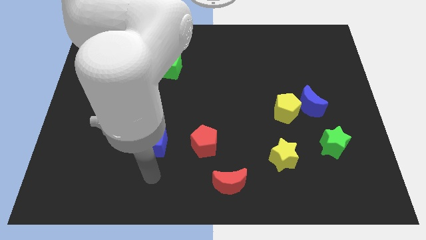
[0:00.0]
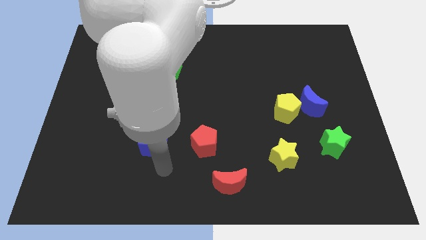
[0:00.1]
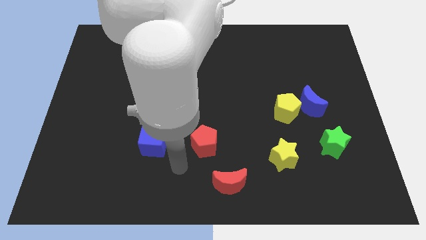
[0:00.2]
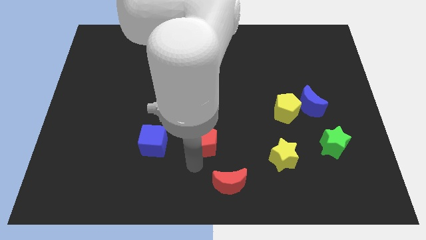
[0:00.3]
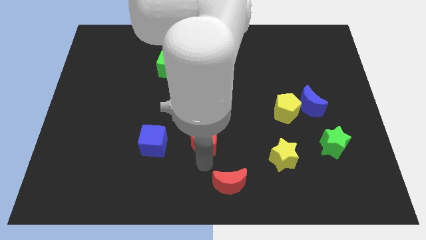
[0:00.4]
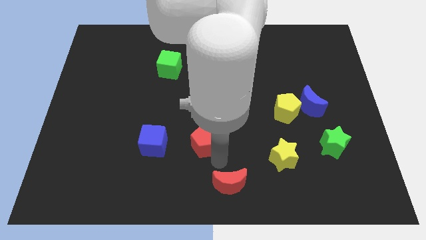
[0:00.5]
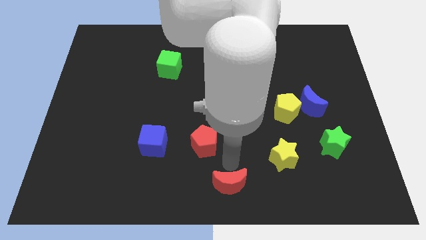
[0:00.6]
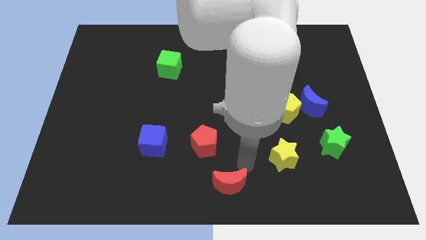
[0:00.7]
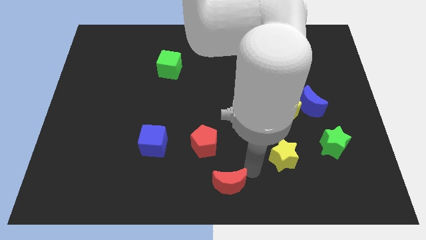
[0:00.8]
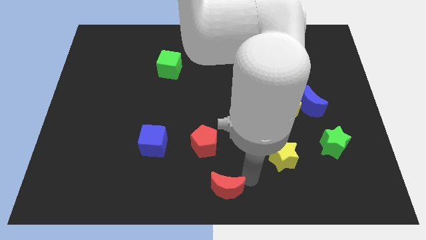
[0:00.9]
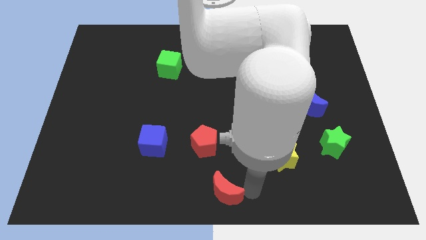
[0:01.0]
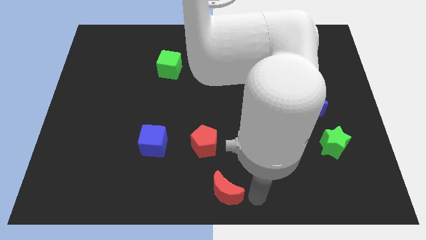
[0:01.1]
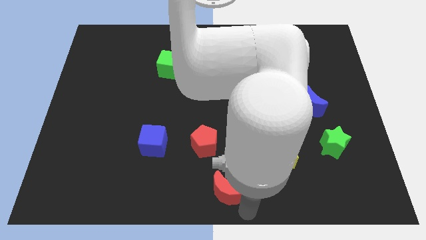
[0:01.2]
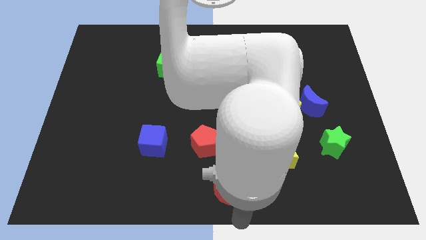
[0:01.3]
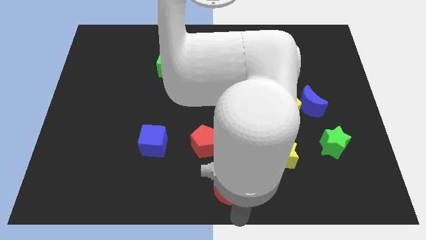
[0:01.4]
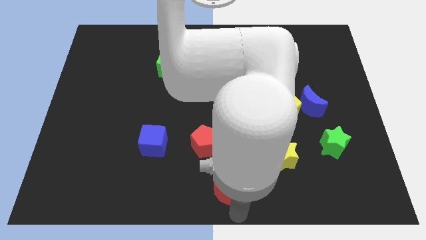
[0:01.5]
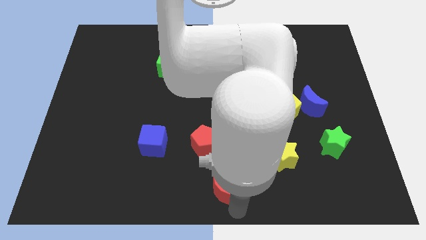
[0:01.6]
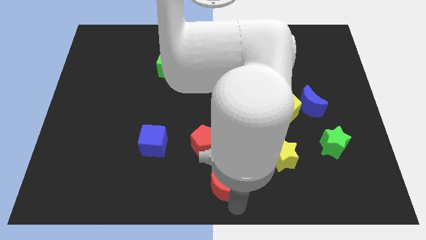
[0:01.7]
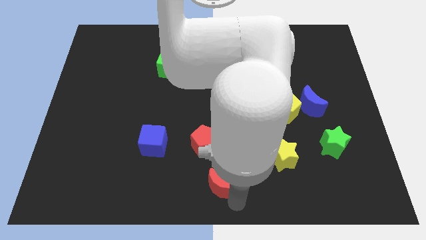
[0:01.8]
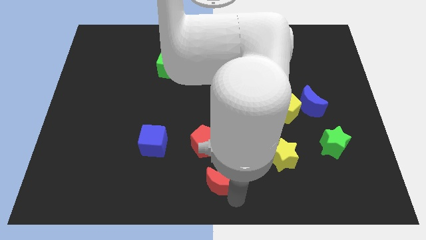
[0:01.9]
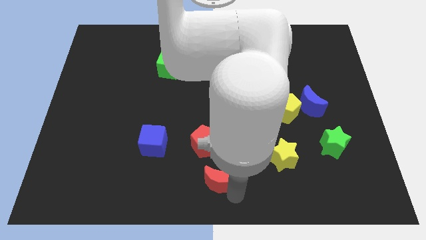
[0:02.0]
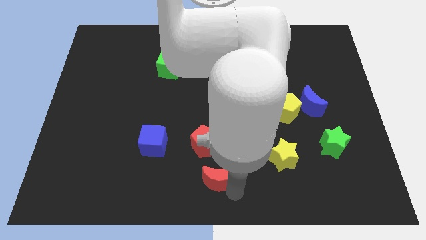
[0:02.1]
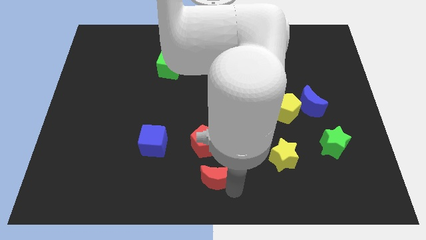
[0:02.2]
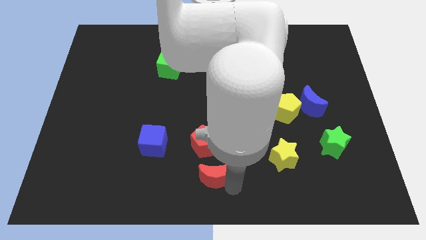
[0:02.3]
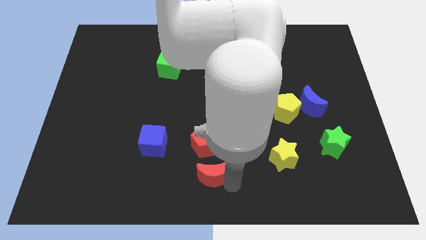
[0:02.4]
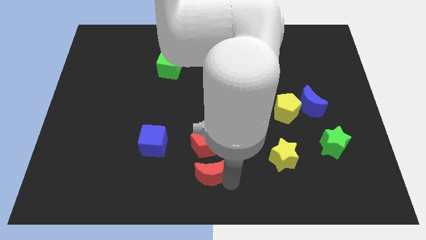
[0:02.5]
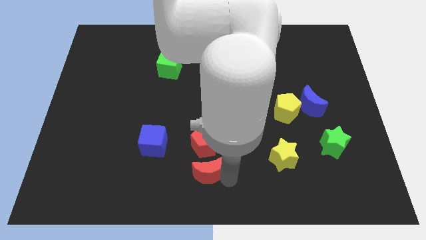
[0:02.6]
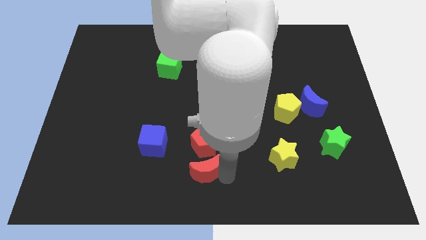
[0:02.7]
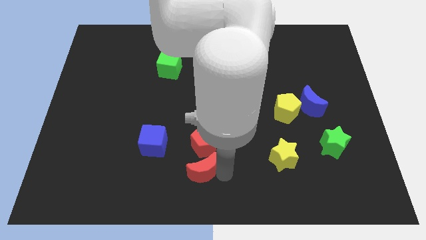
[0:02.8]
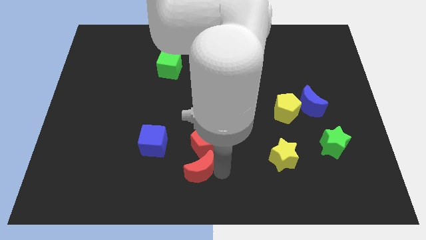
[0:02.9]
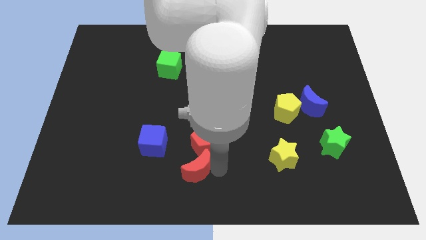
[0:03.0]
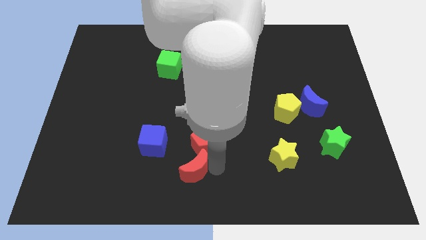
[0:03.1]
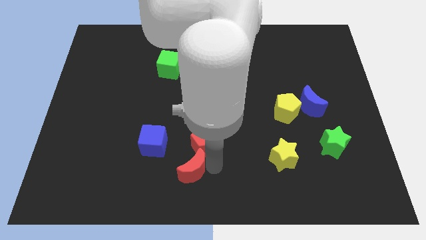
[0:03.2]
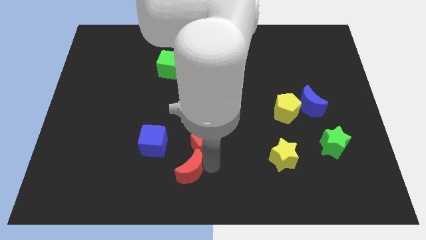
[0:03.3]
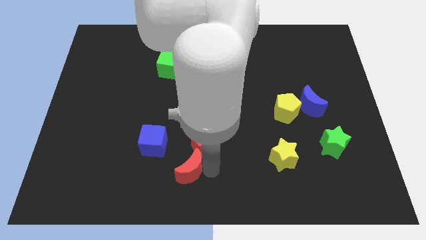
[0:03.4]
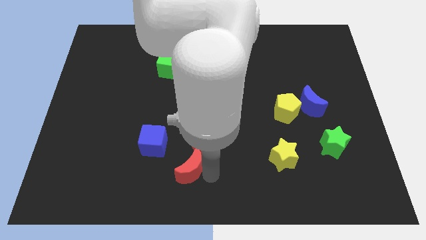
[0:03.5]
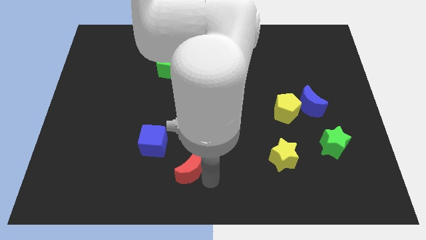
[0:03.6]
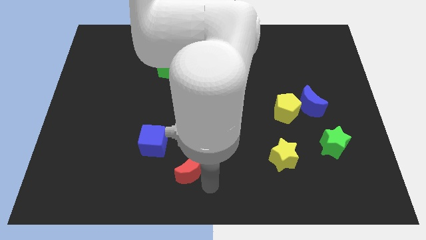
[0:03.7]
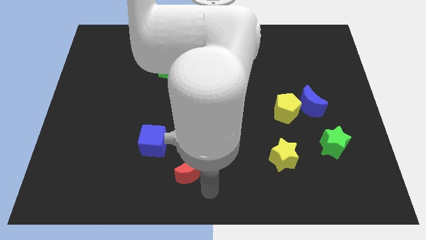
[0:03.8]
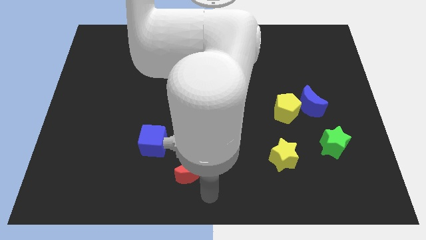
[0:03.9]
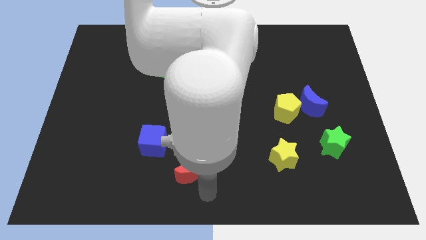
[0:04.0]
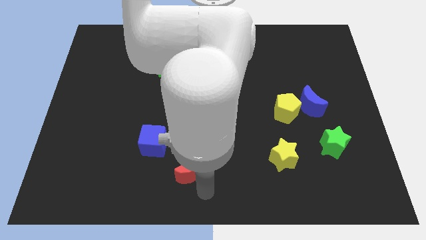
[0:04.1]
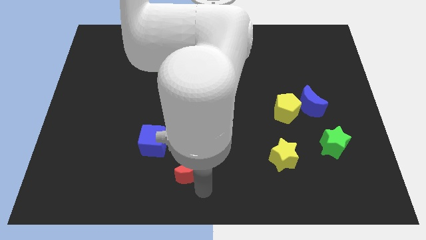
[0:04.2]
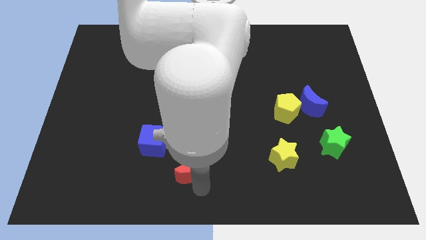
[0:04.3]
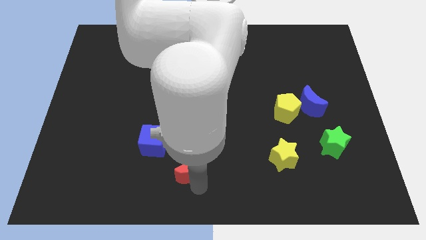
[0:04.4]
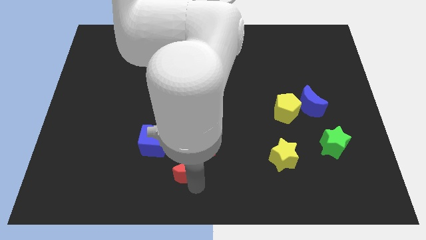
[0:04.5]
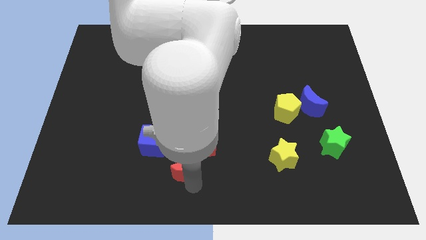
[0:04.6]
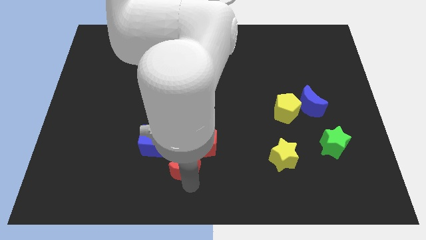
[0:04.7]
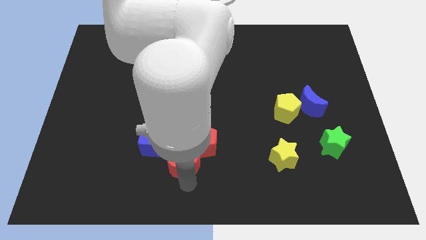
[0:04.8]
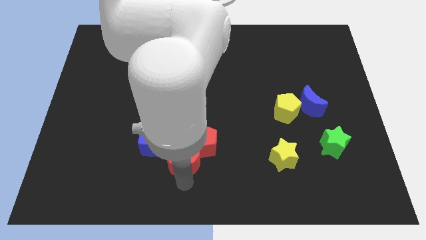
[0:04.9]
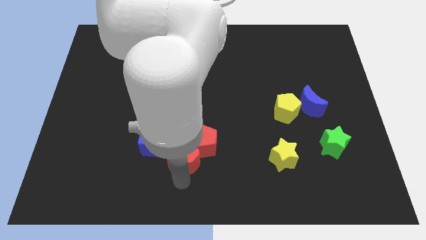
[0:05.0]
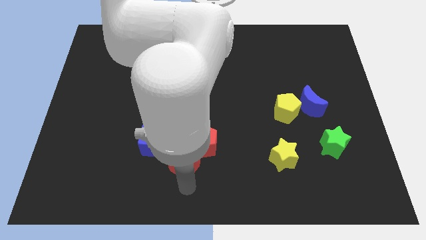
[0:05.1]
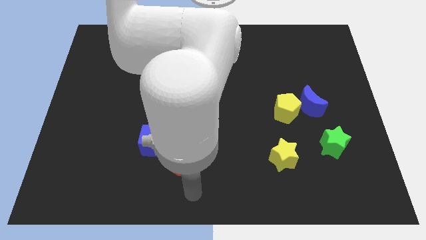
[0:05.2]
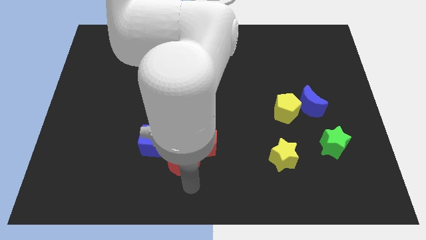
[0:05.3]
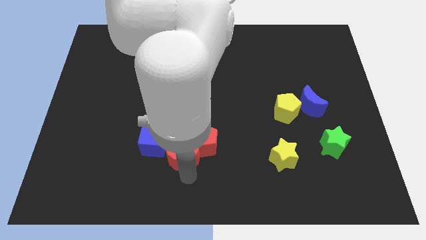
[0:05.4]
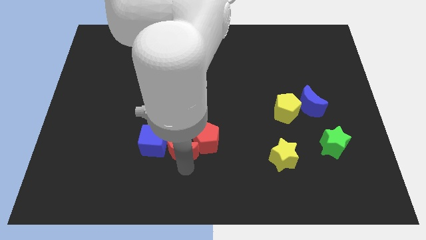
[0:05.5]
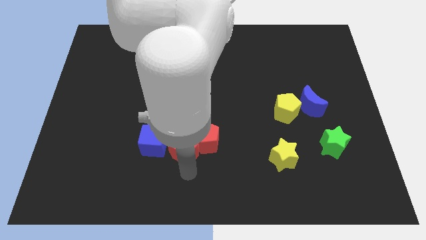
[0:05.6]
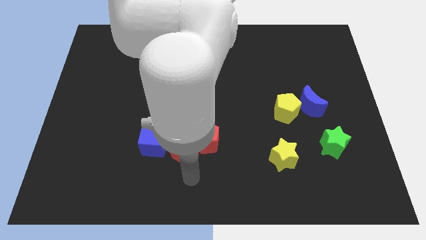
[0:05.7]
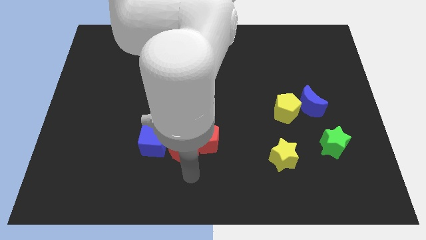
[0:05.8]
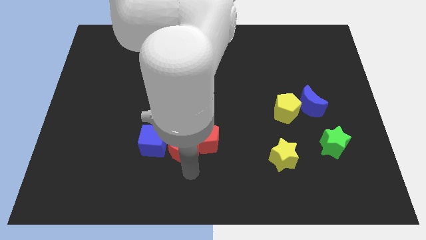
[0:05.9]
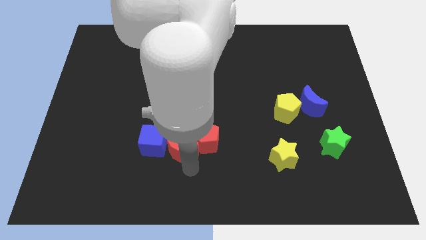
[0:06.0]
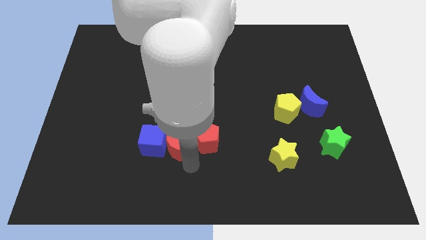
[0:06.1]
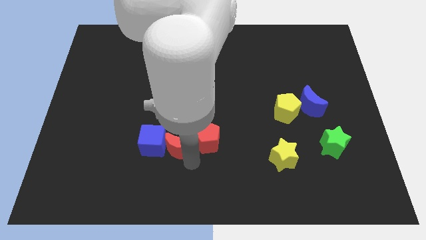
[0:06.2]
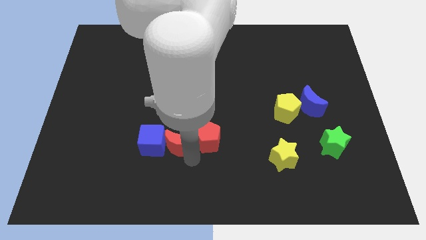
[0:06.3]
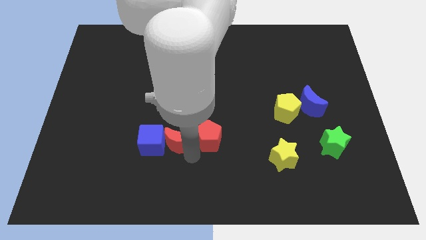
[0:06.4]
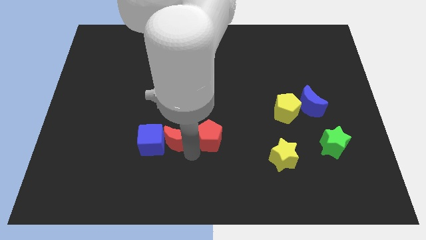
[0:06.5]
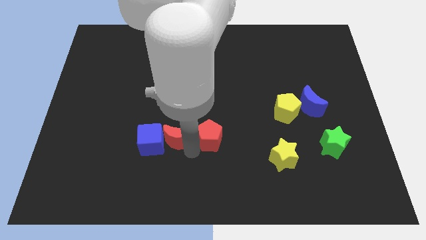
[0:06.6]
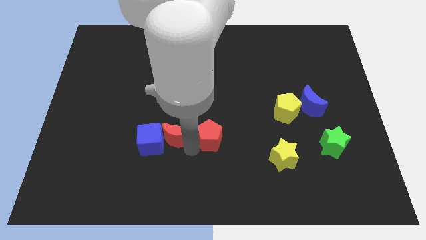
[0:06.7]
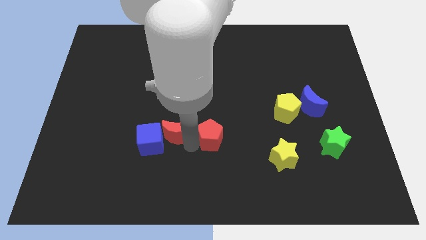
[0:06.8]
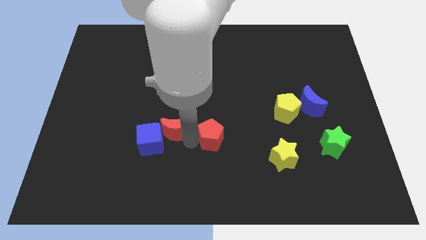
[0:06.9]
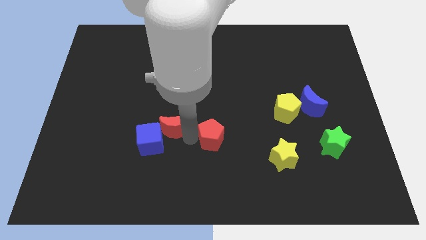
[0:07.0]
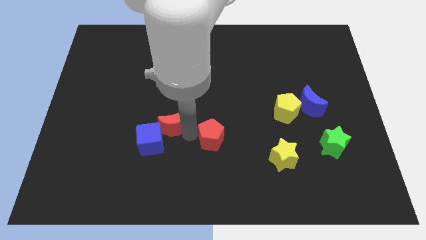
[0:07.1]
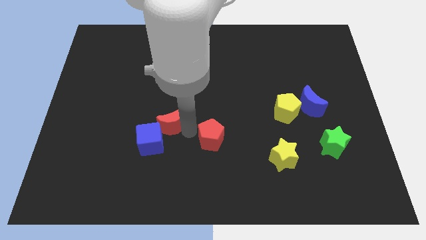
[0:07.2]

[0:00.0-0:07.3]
slide the red moon to the top side of the blue cube

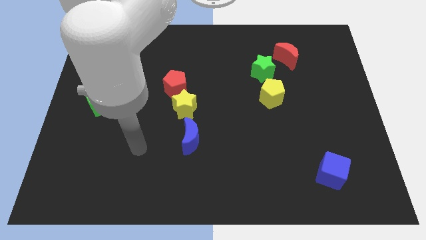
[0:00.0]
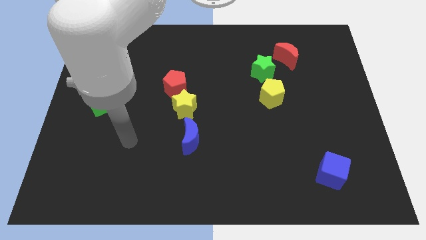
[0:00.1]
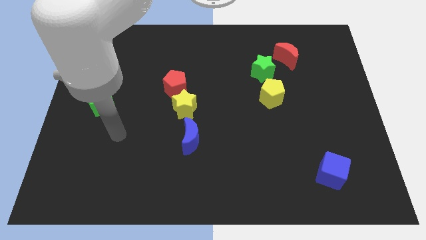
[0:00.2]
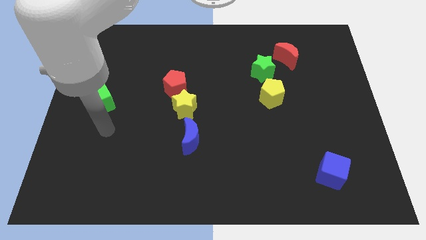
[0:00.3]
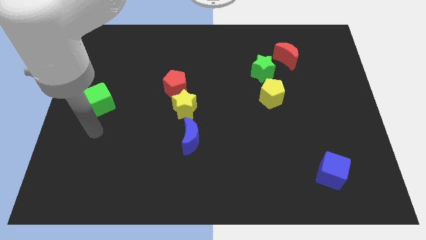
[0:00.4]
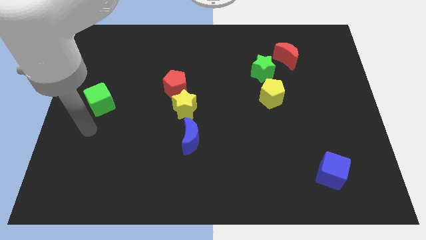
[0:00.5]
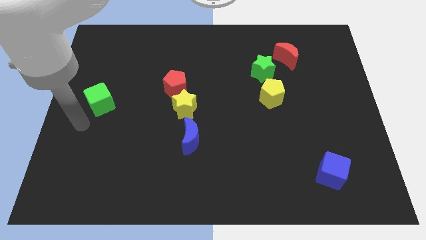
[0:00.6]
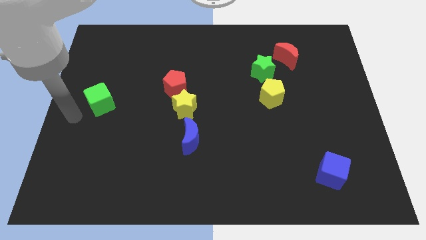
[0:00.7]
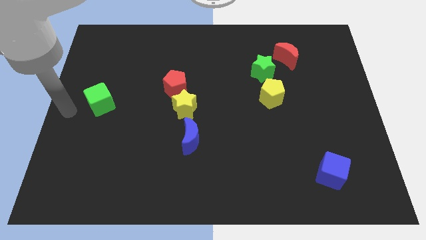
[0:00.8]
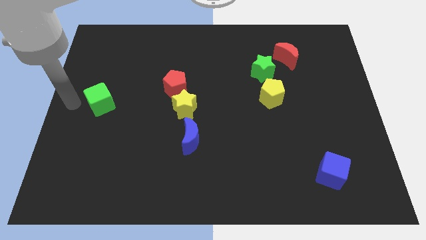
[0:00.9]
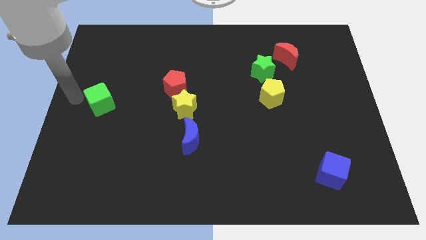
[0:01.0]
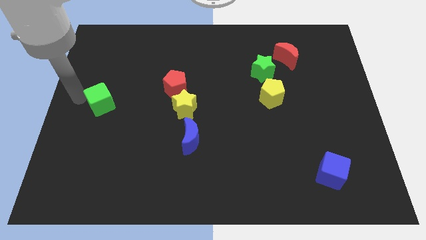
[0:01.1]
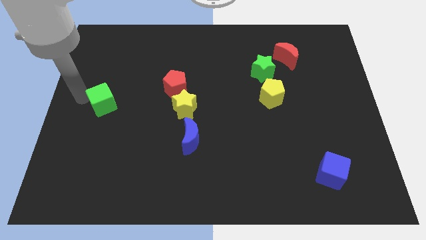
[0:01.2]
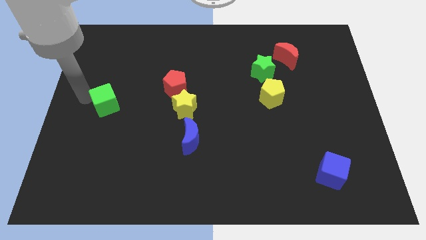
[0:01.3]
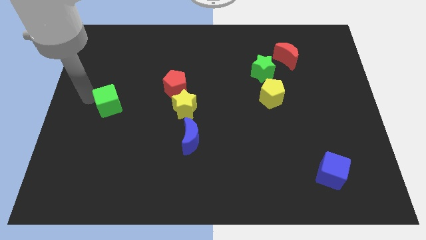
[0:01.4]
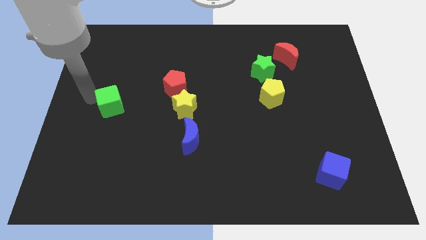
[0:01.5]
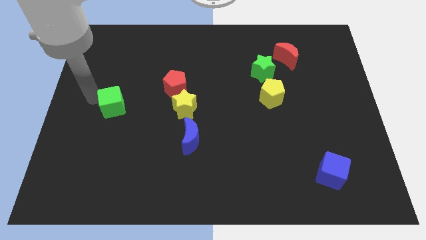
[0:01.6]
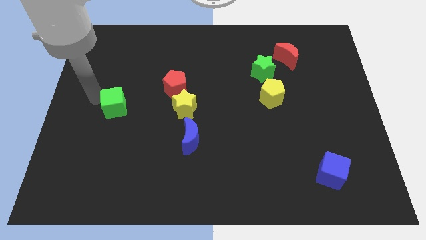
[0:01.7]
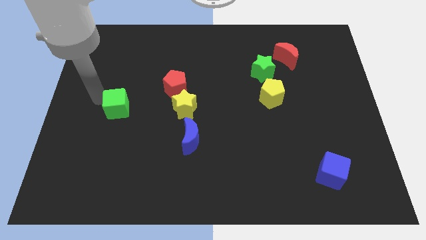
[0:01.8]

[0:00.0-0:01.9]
slide the green cube just left of the yellow star
